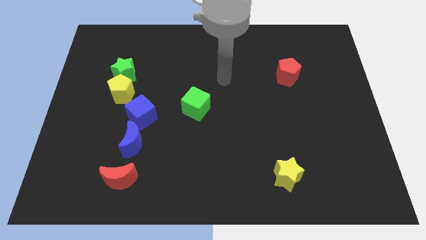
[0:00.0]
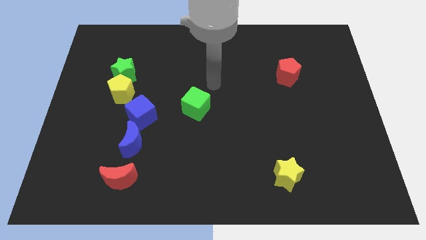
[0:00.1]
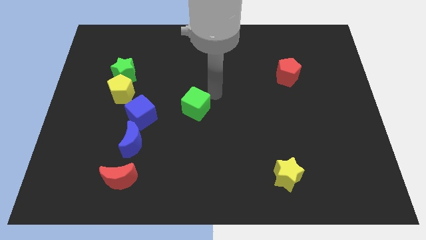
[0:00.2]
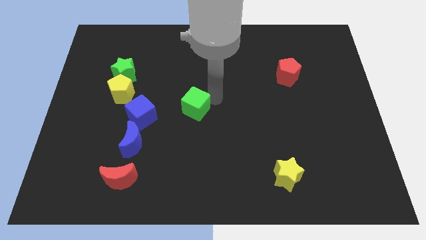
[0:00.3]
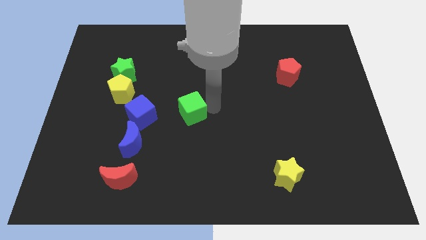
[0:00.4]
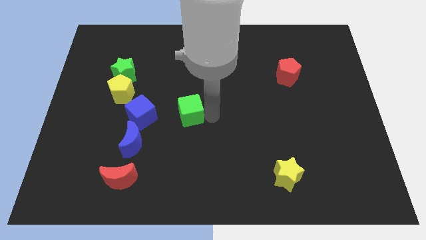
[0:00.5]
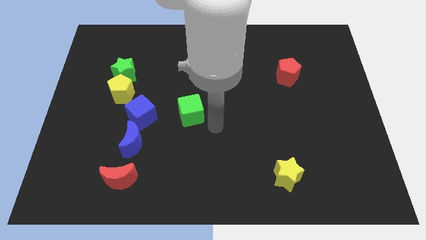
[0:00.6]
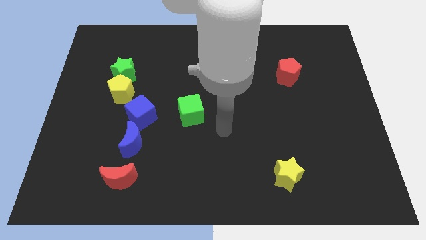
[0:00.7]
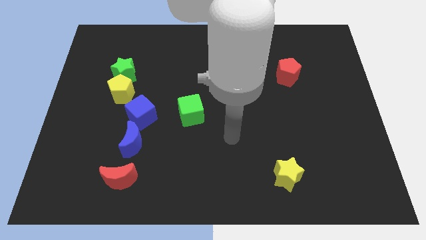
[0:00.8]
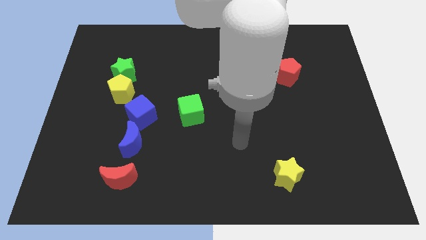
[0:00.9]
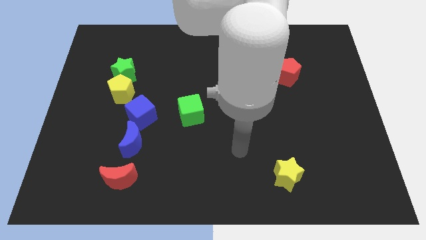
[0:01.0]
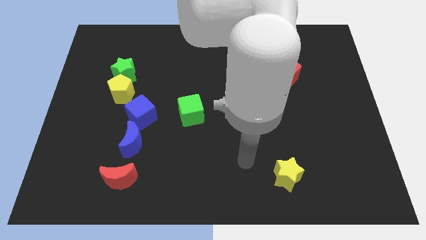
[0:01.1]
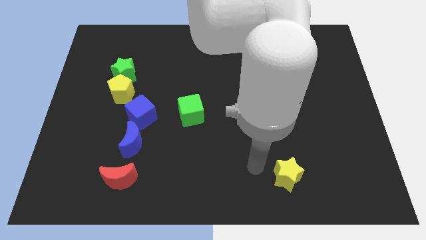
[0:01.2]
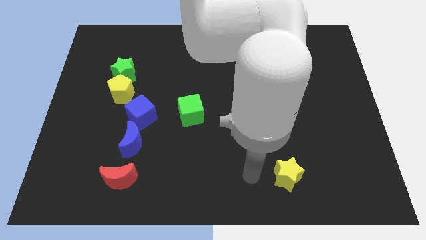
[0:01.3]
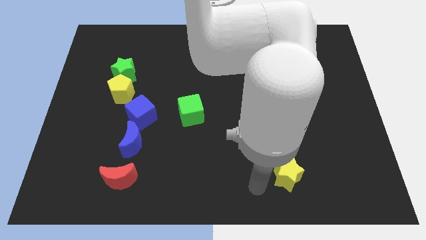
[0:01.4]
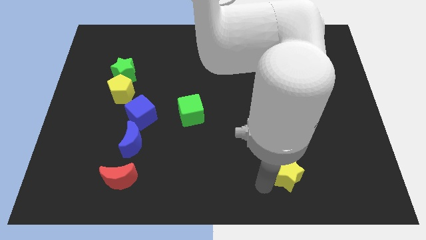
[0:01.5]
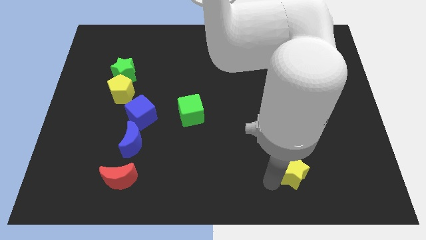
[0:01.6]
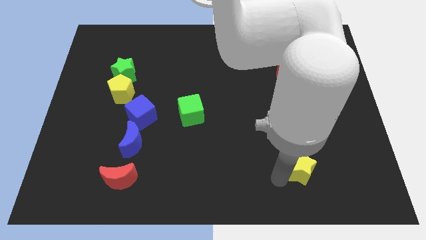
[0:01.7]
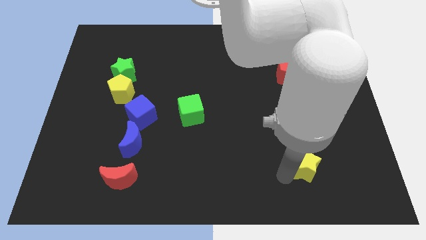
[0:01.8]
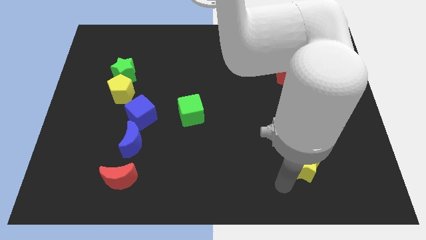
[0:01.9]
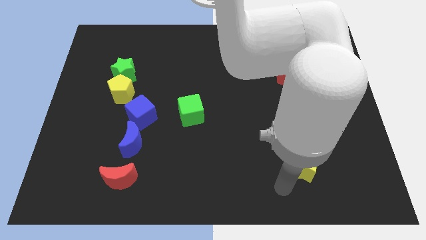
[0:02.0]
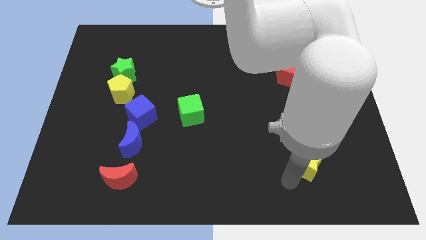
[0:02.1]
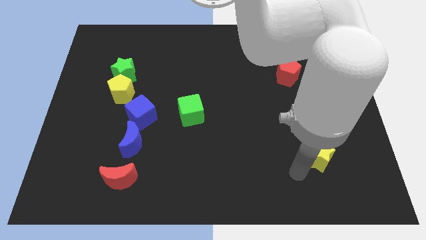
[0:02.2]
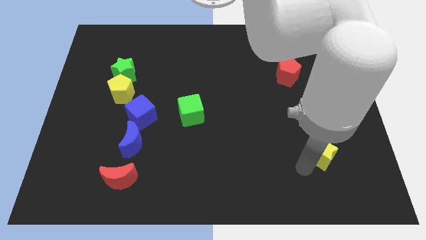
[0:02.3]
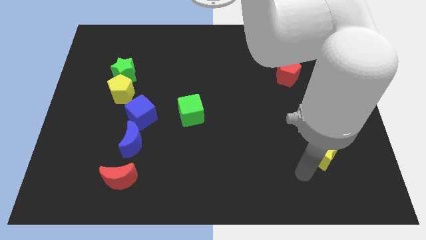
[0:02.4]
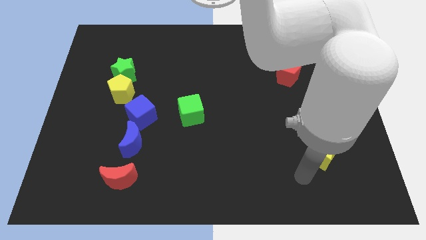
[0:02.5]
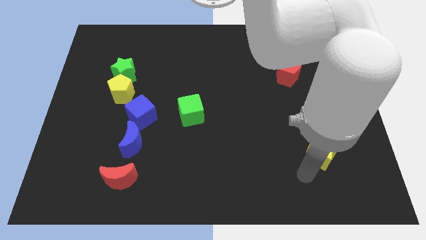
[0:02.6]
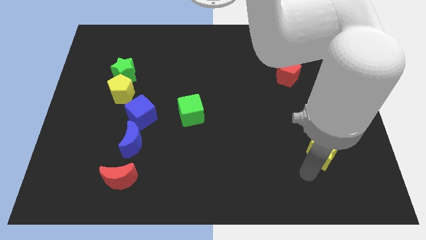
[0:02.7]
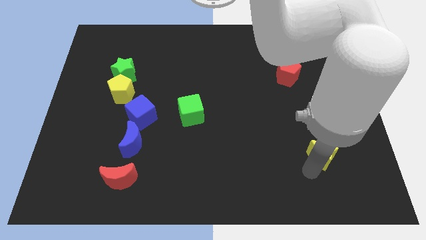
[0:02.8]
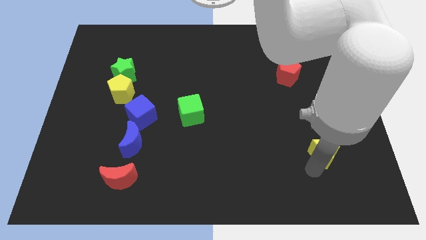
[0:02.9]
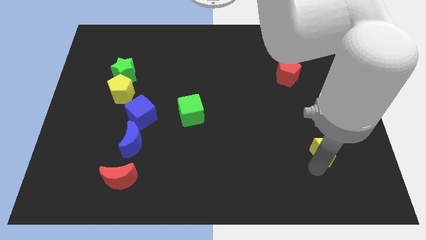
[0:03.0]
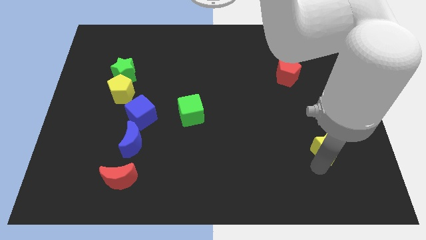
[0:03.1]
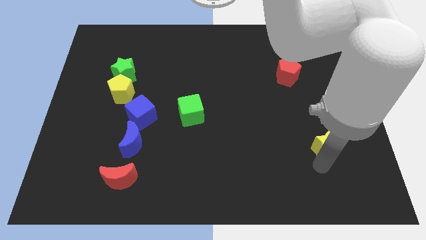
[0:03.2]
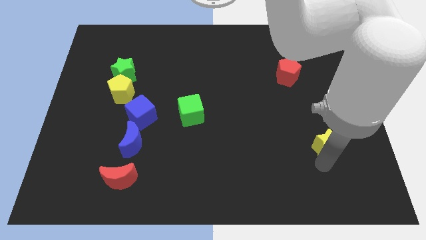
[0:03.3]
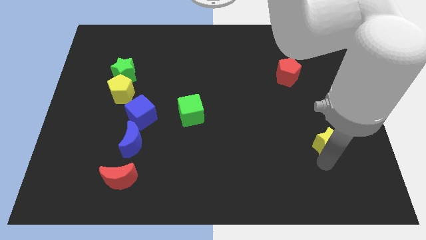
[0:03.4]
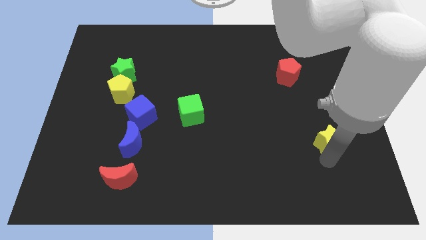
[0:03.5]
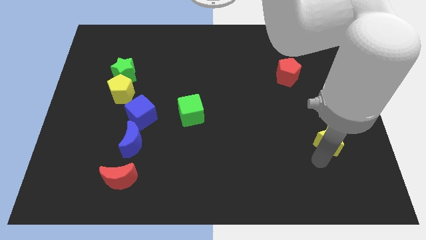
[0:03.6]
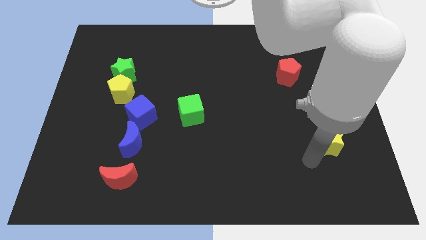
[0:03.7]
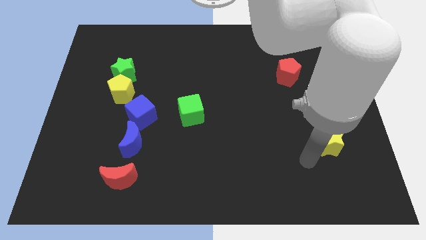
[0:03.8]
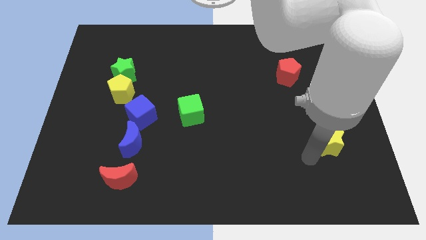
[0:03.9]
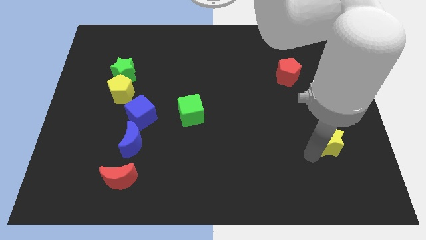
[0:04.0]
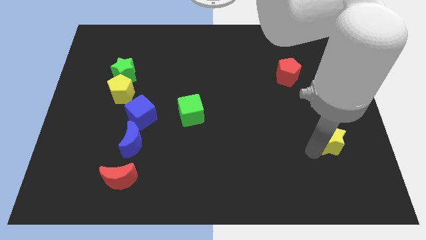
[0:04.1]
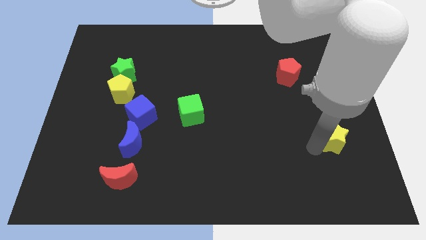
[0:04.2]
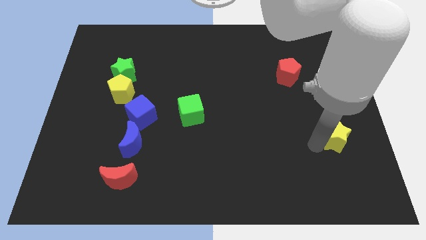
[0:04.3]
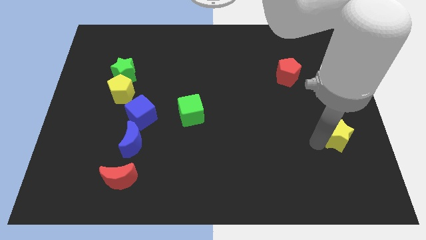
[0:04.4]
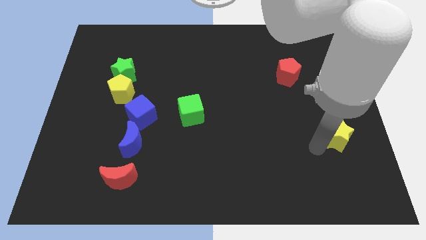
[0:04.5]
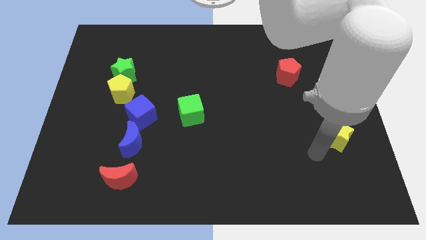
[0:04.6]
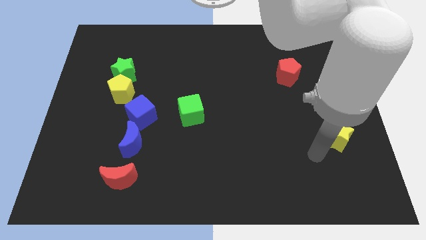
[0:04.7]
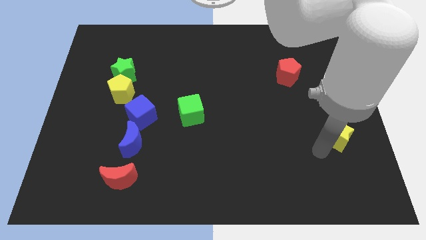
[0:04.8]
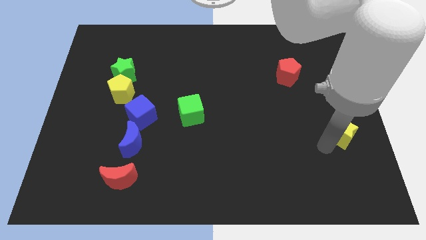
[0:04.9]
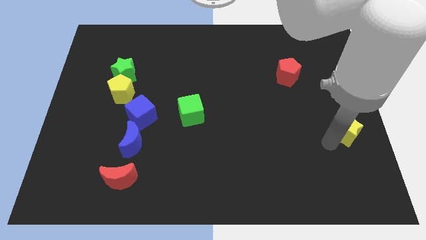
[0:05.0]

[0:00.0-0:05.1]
move the yellow star to the center right
